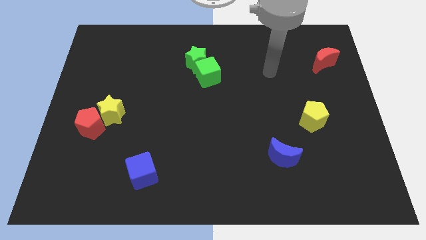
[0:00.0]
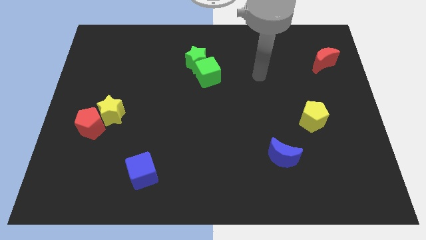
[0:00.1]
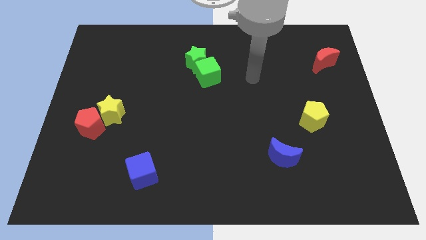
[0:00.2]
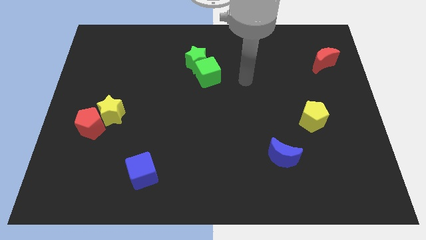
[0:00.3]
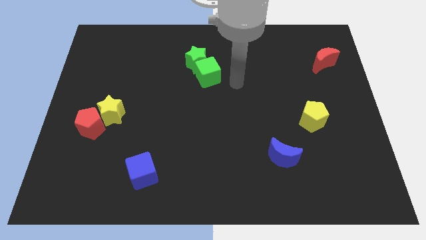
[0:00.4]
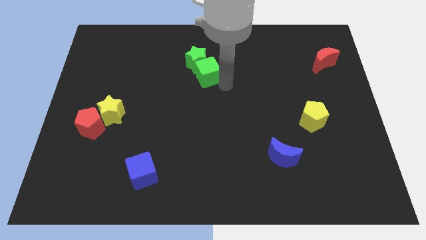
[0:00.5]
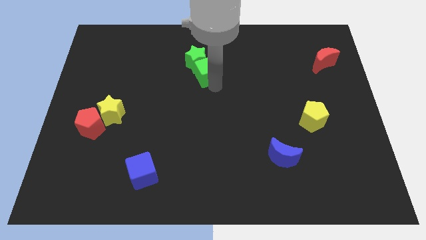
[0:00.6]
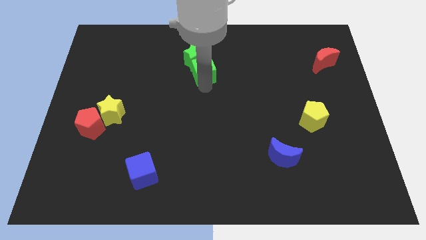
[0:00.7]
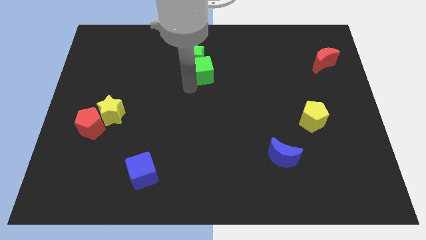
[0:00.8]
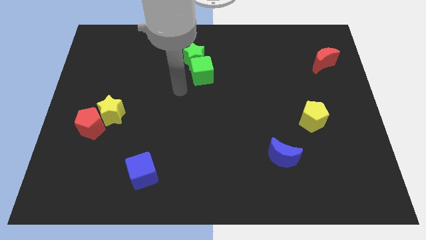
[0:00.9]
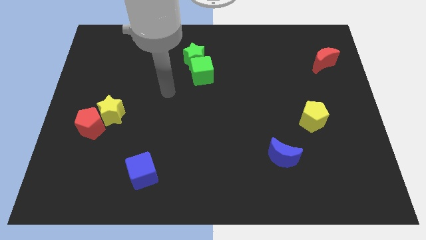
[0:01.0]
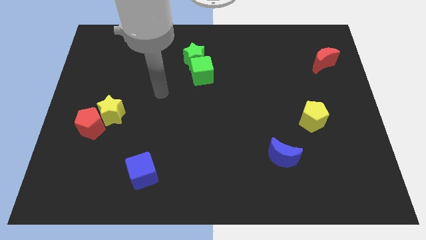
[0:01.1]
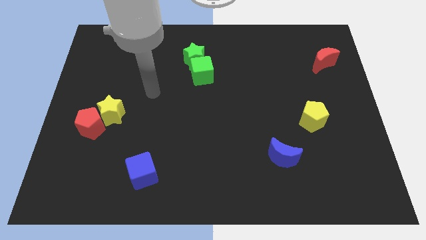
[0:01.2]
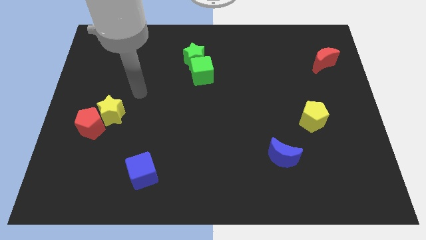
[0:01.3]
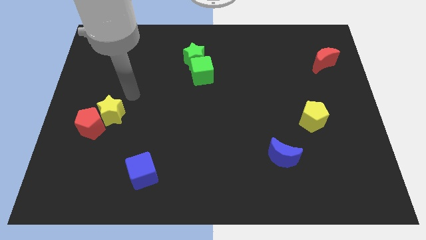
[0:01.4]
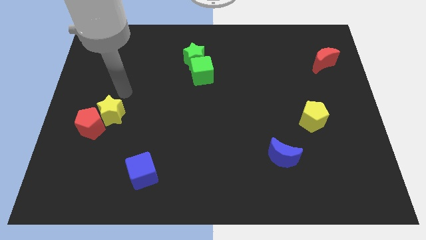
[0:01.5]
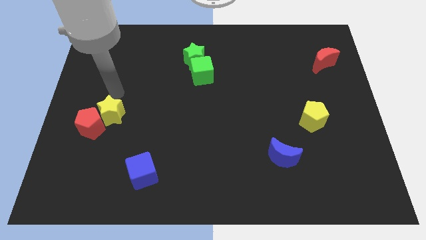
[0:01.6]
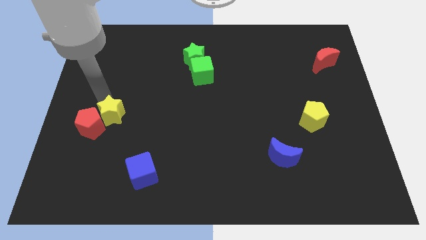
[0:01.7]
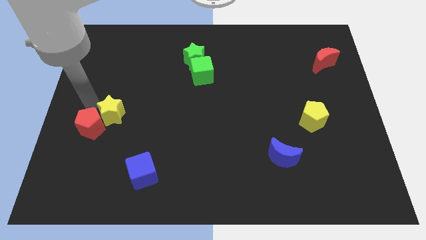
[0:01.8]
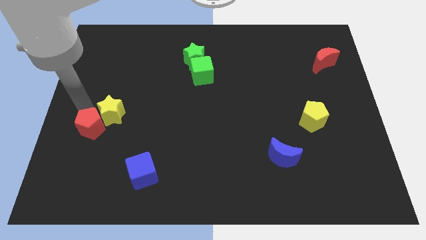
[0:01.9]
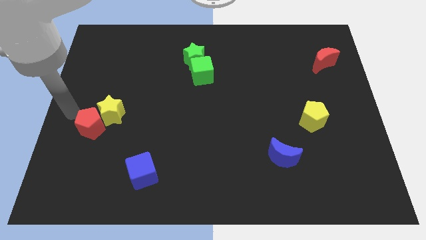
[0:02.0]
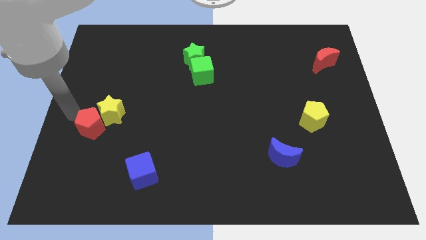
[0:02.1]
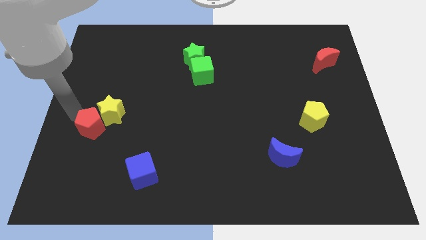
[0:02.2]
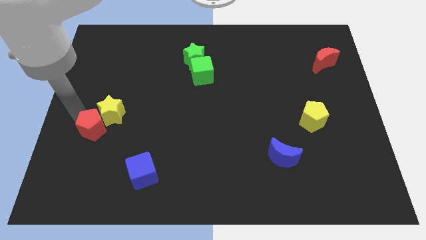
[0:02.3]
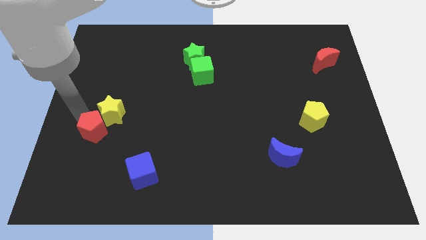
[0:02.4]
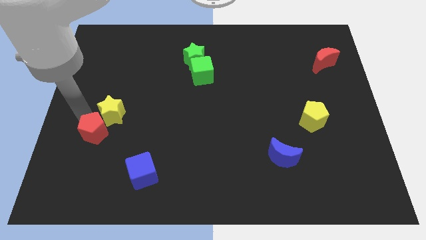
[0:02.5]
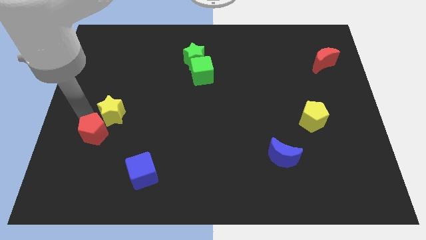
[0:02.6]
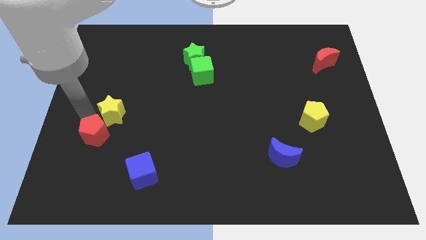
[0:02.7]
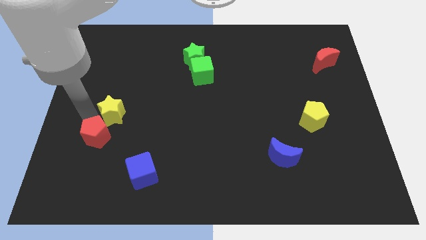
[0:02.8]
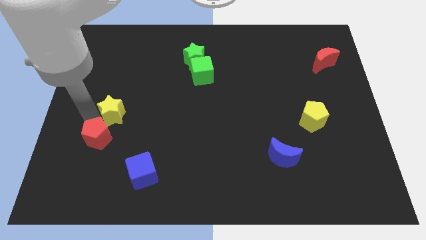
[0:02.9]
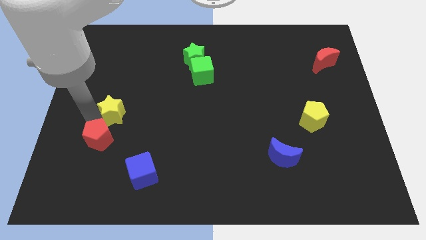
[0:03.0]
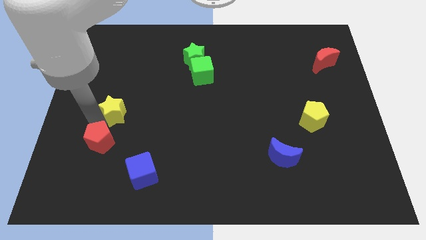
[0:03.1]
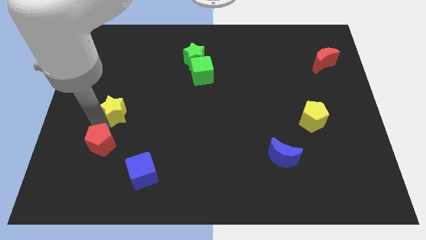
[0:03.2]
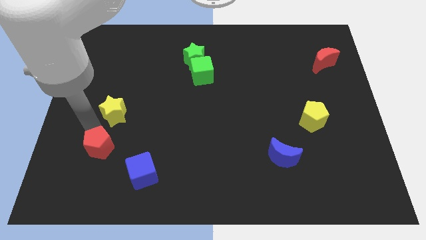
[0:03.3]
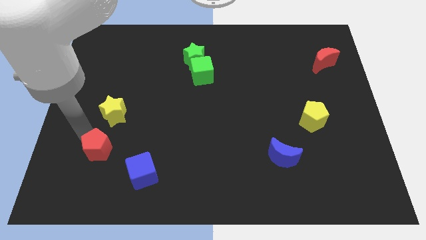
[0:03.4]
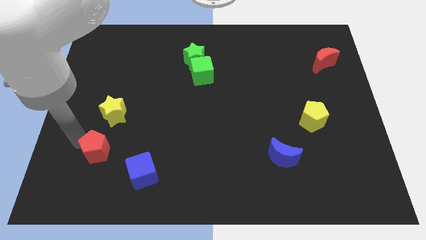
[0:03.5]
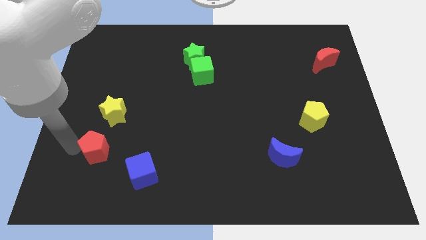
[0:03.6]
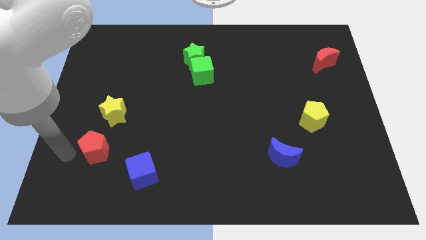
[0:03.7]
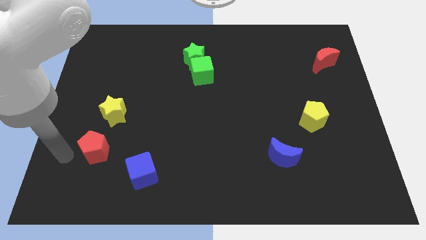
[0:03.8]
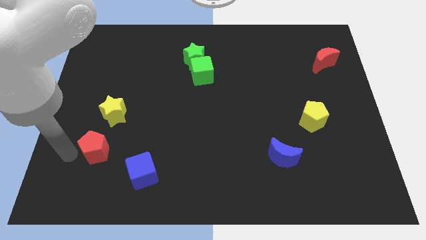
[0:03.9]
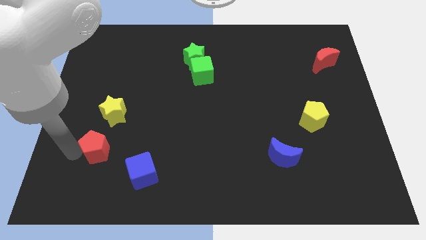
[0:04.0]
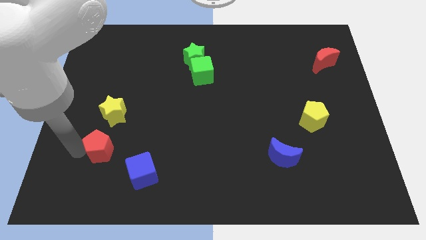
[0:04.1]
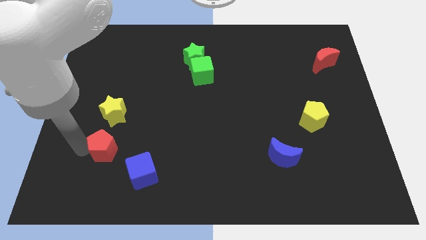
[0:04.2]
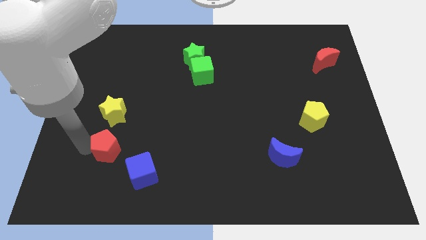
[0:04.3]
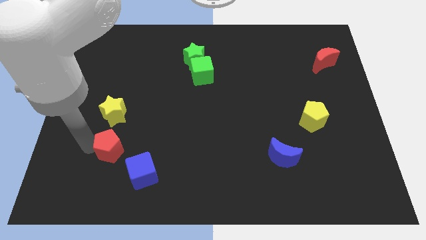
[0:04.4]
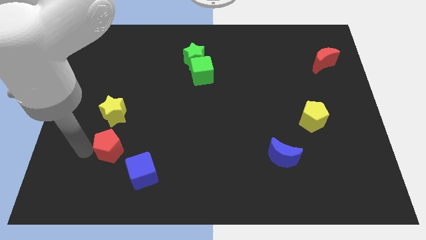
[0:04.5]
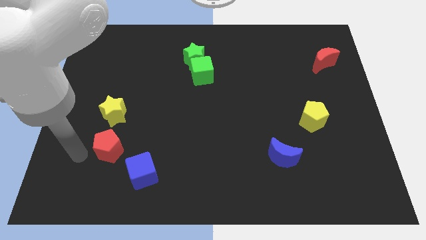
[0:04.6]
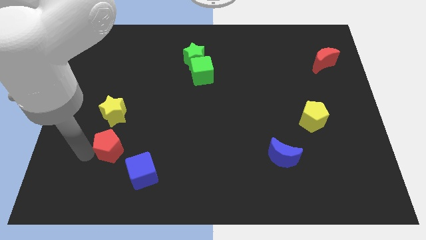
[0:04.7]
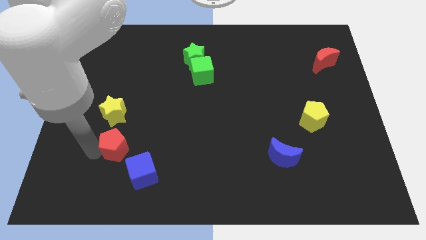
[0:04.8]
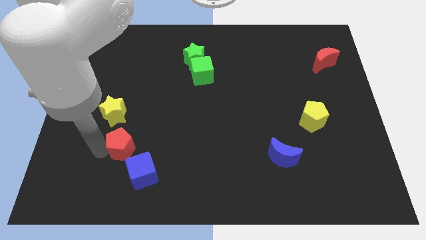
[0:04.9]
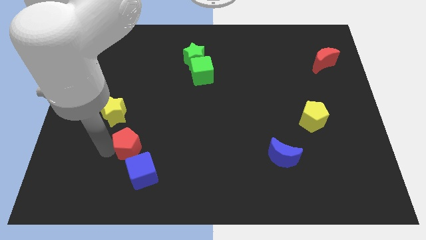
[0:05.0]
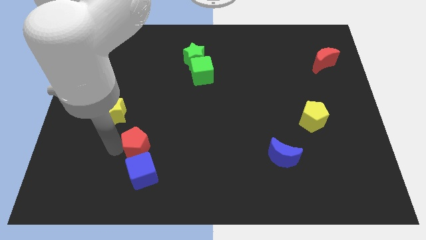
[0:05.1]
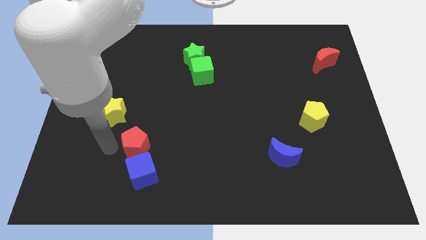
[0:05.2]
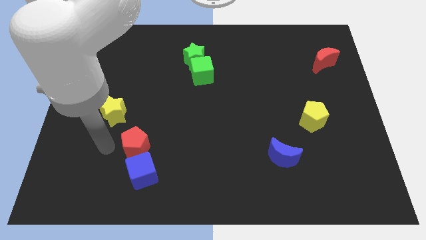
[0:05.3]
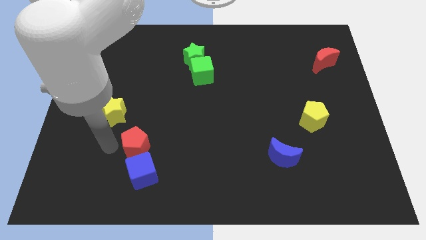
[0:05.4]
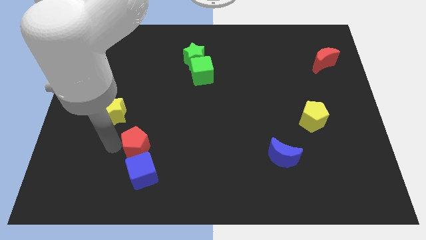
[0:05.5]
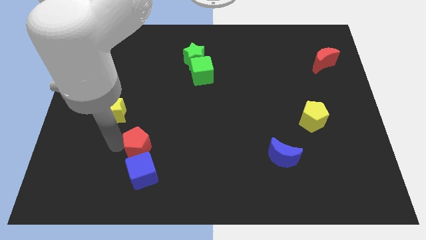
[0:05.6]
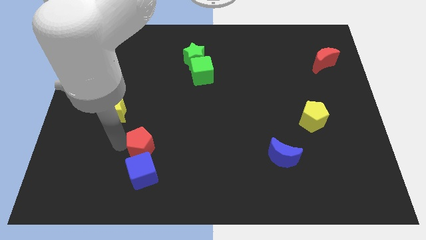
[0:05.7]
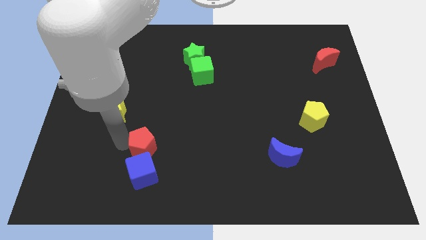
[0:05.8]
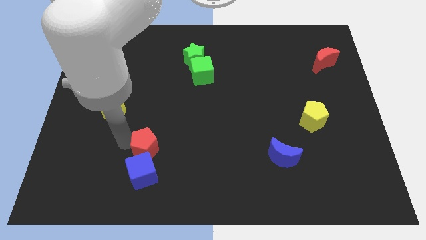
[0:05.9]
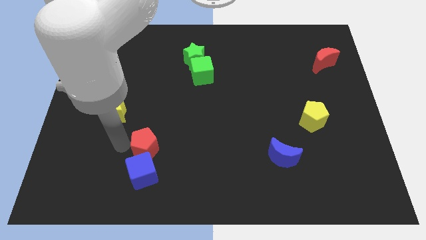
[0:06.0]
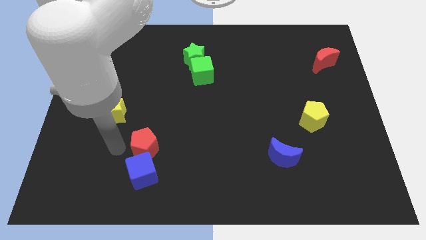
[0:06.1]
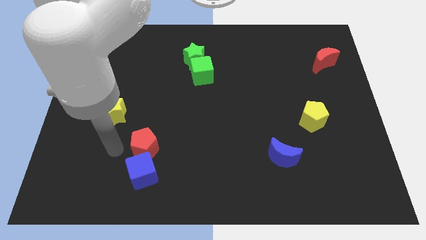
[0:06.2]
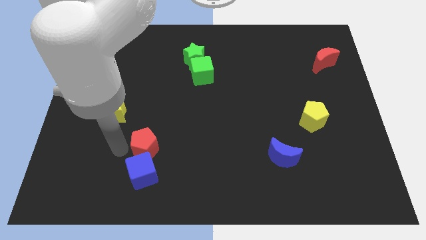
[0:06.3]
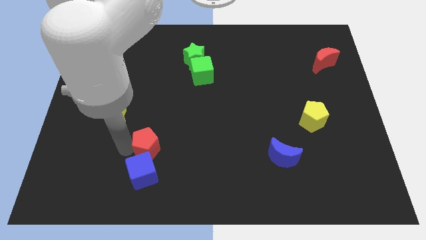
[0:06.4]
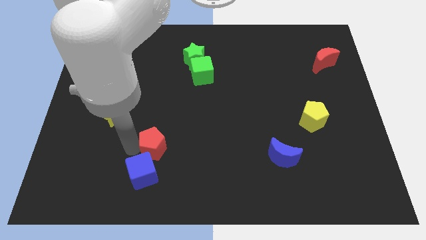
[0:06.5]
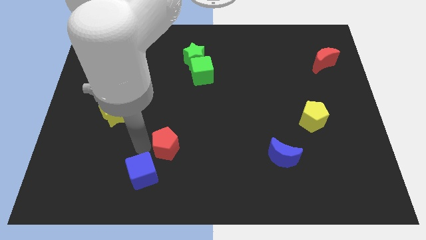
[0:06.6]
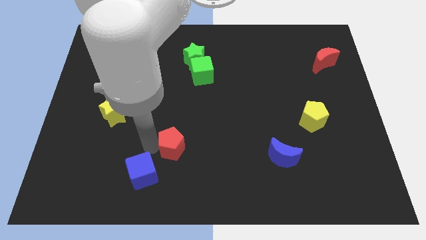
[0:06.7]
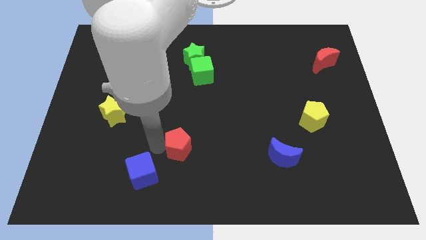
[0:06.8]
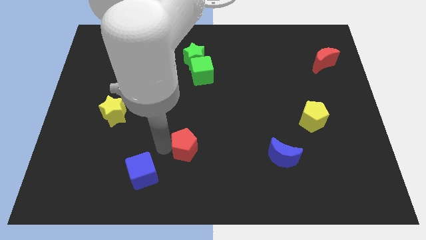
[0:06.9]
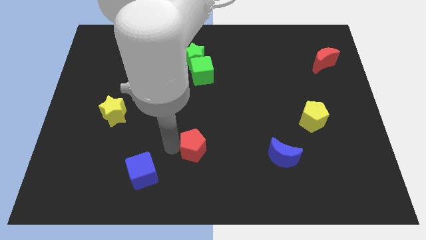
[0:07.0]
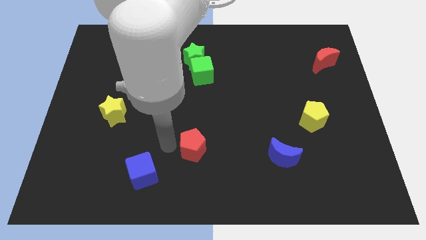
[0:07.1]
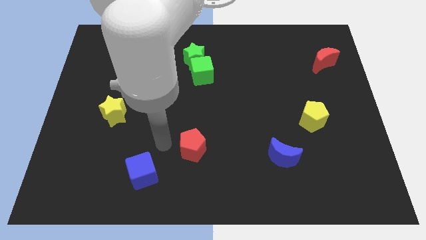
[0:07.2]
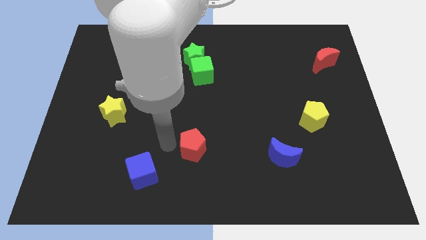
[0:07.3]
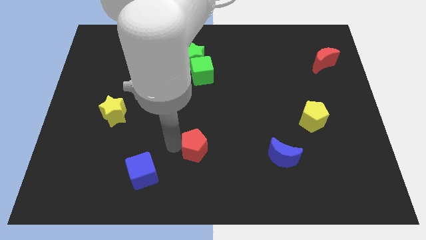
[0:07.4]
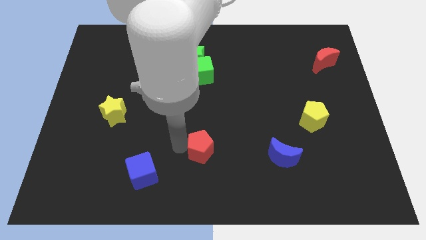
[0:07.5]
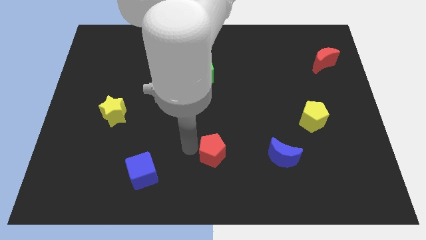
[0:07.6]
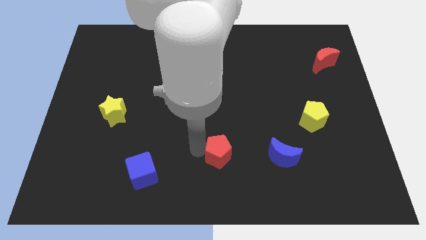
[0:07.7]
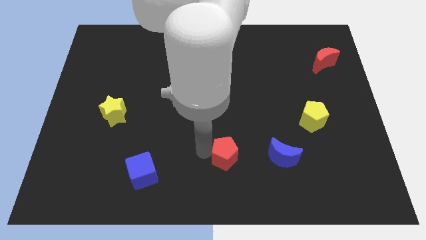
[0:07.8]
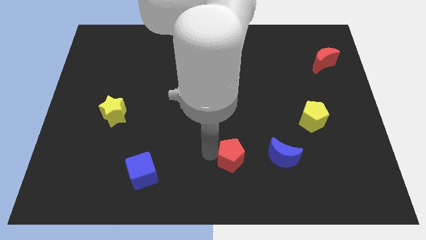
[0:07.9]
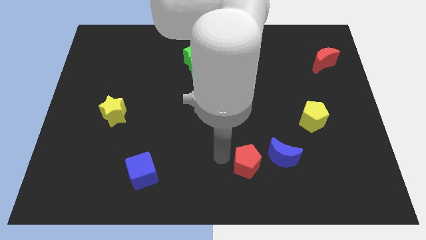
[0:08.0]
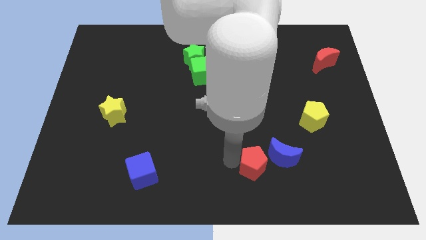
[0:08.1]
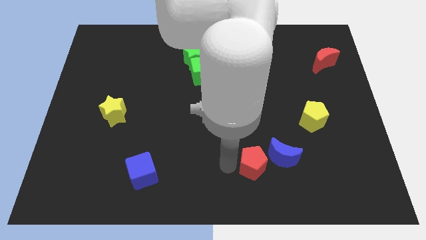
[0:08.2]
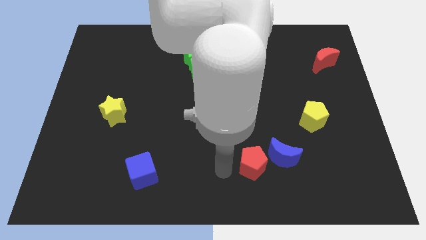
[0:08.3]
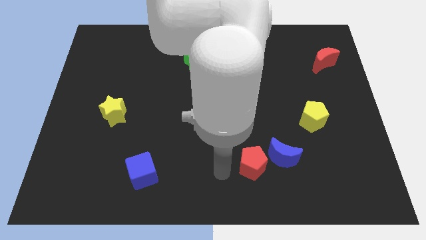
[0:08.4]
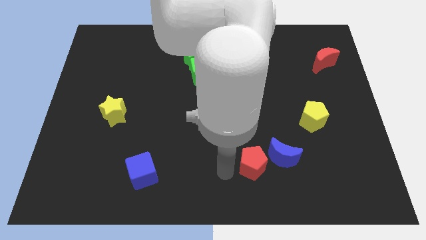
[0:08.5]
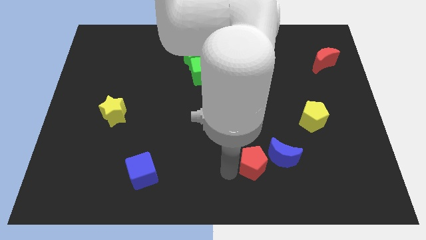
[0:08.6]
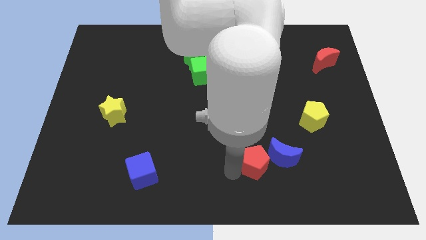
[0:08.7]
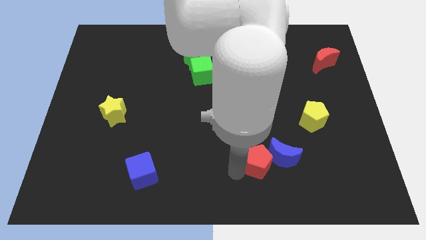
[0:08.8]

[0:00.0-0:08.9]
push the red pentagon towards the blue moon
